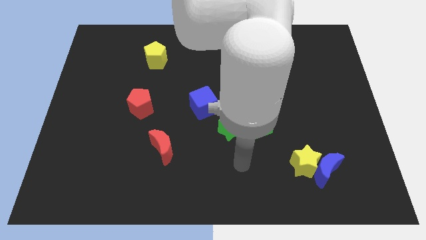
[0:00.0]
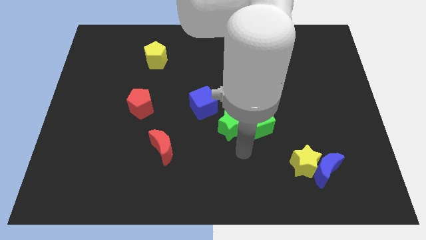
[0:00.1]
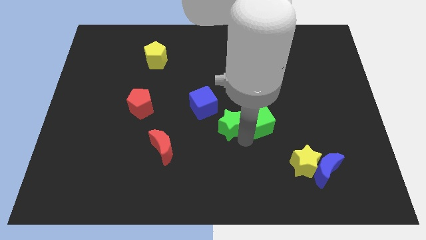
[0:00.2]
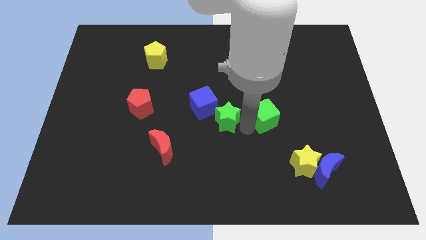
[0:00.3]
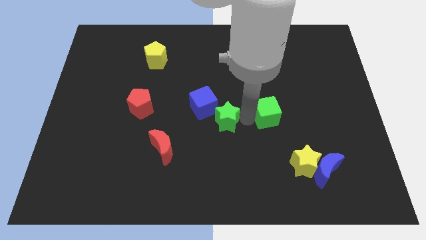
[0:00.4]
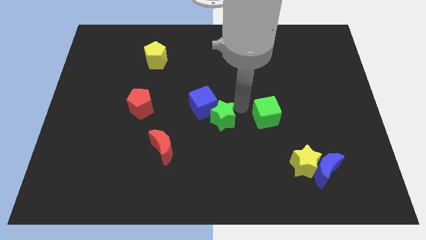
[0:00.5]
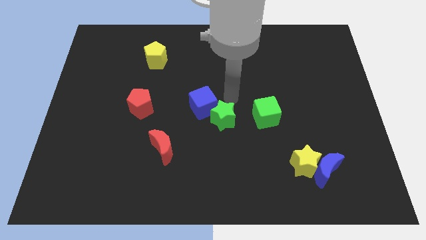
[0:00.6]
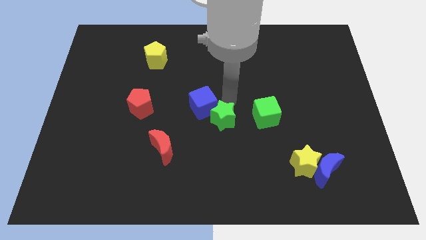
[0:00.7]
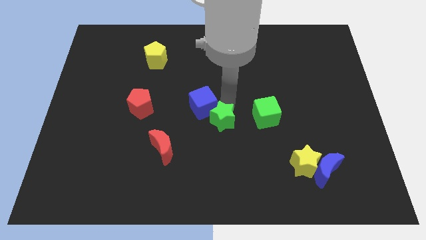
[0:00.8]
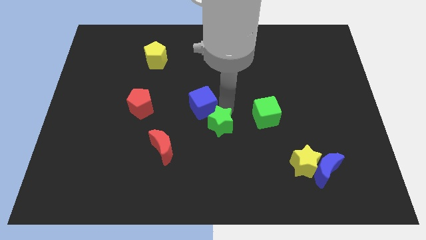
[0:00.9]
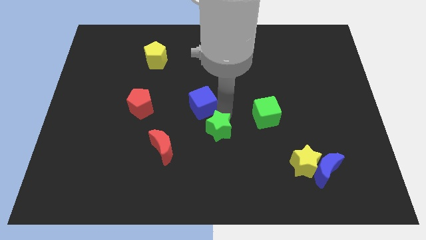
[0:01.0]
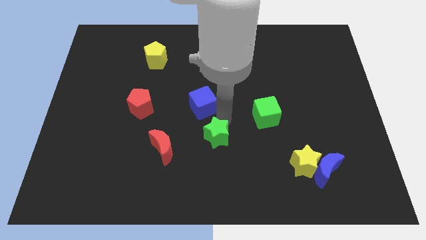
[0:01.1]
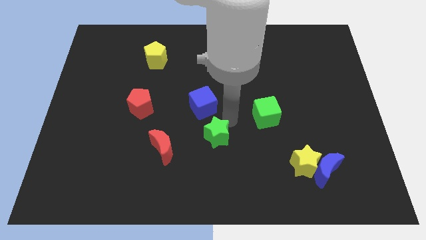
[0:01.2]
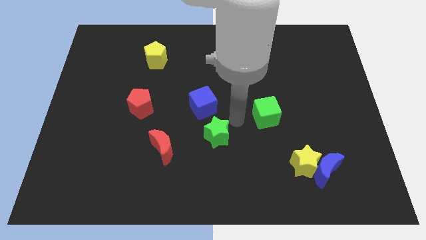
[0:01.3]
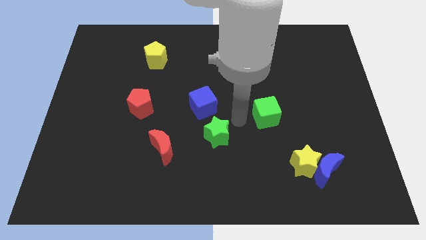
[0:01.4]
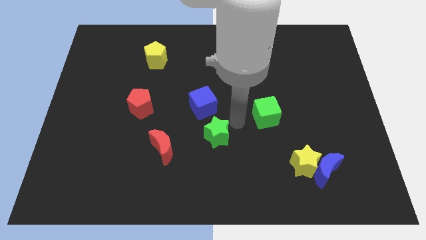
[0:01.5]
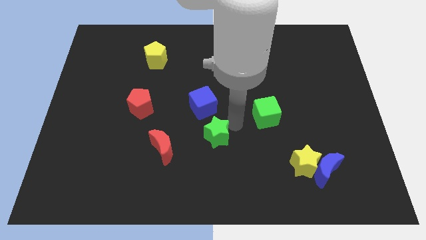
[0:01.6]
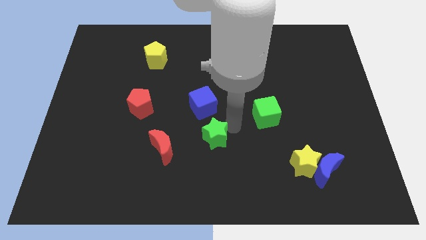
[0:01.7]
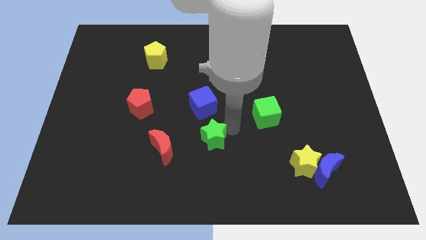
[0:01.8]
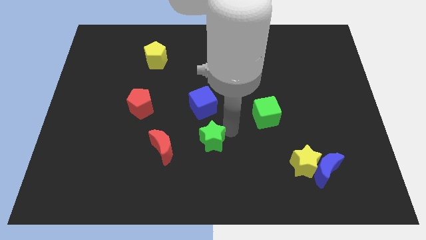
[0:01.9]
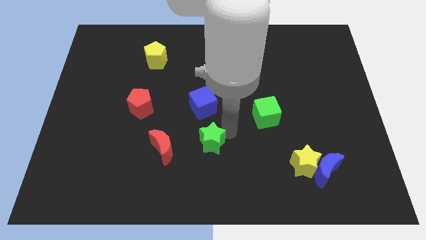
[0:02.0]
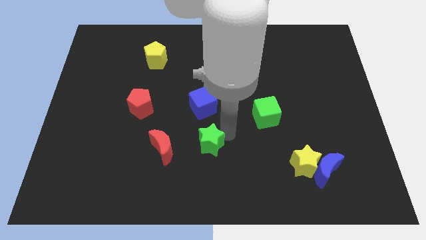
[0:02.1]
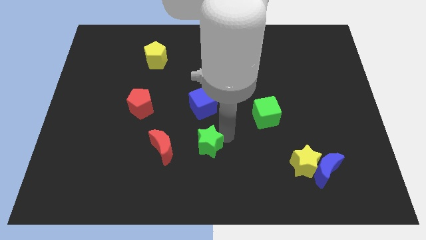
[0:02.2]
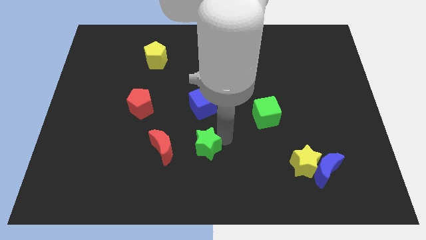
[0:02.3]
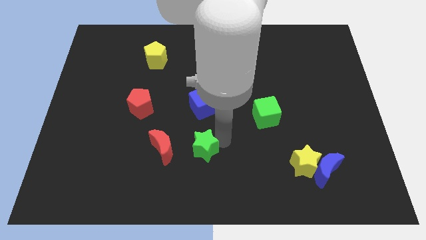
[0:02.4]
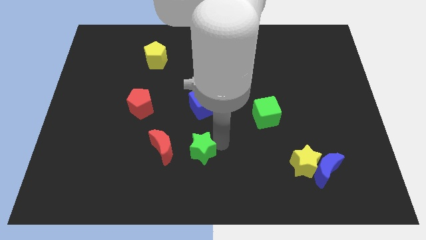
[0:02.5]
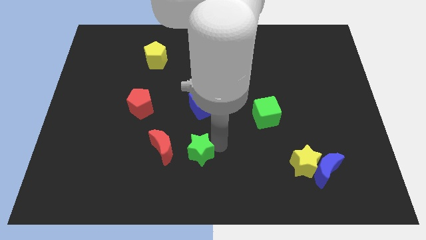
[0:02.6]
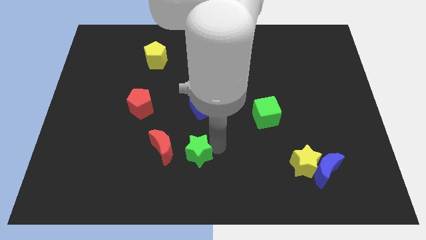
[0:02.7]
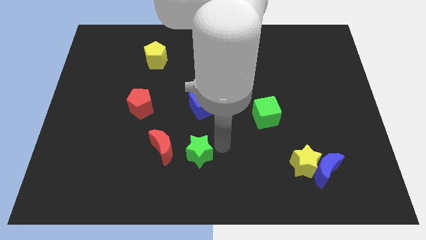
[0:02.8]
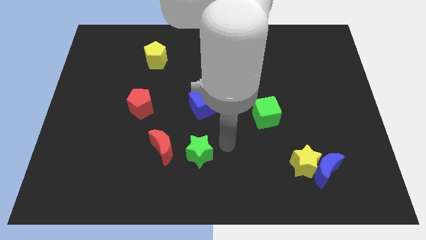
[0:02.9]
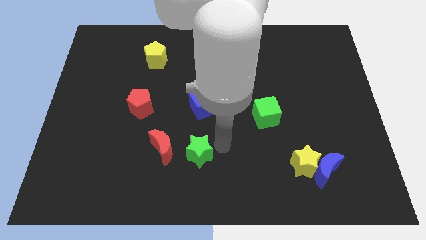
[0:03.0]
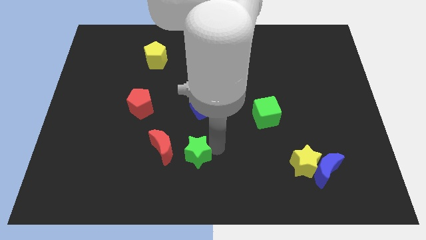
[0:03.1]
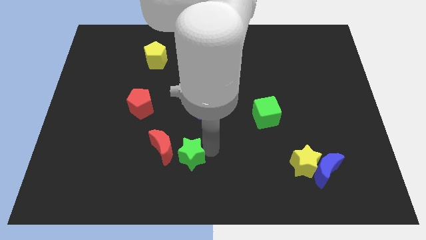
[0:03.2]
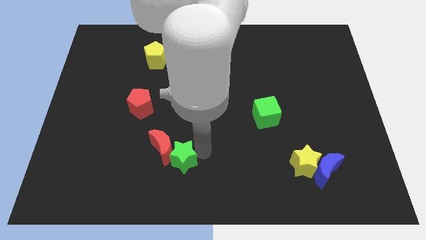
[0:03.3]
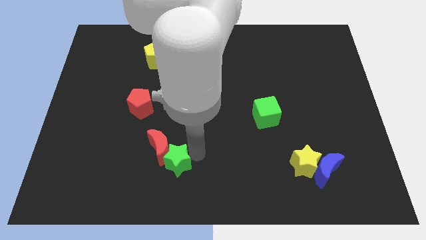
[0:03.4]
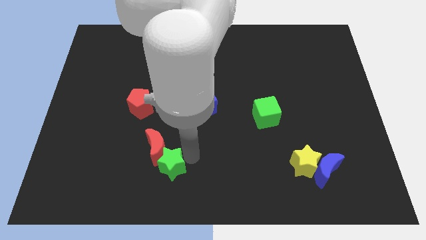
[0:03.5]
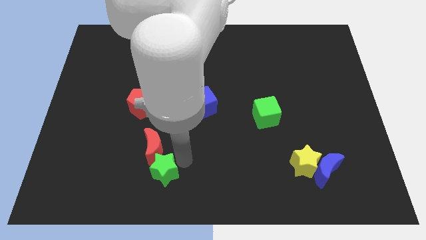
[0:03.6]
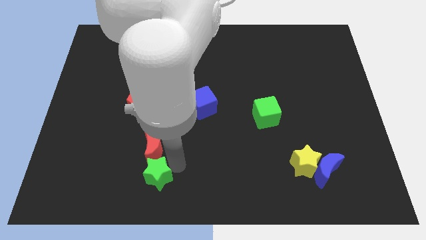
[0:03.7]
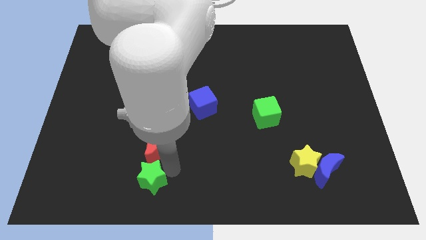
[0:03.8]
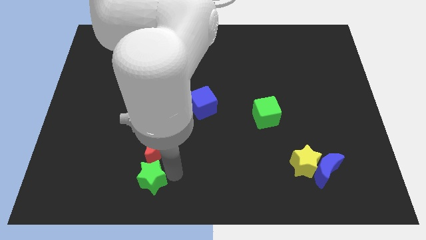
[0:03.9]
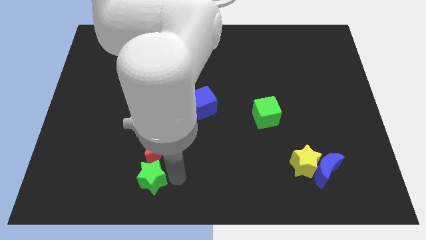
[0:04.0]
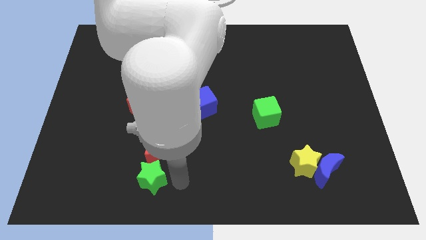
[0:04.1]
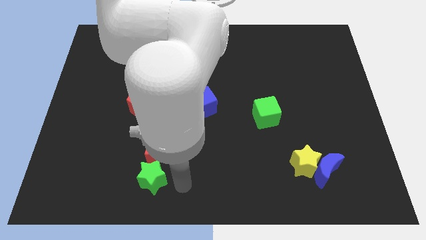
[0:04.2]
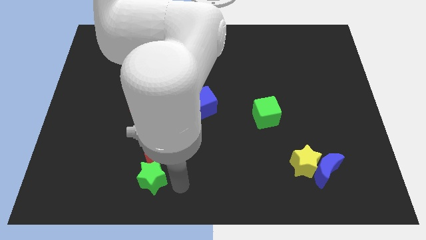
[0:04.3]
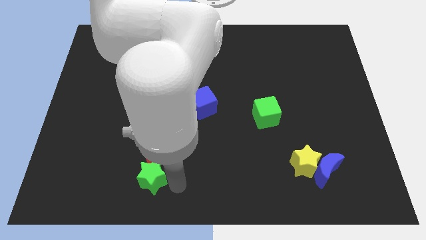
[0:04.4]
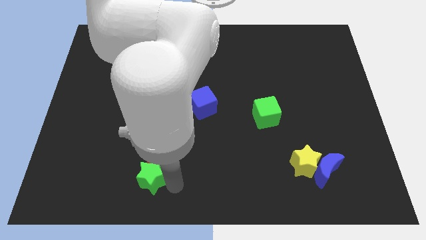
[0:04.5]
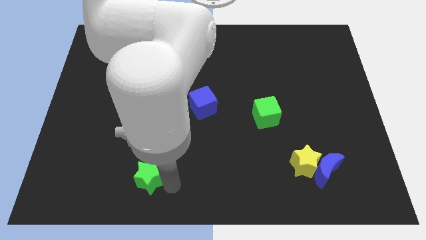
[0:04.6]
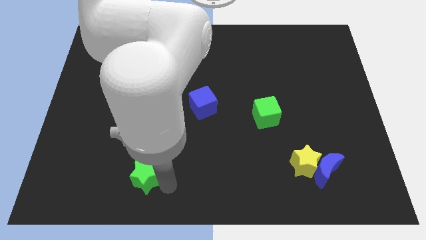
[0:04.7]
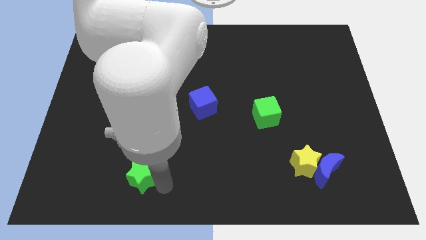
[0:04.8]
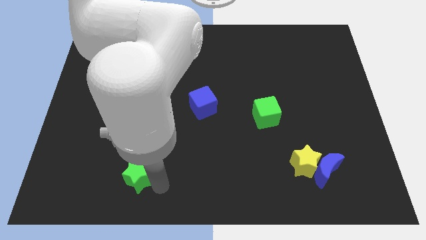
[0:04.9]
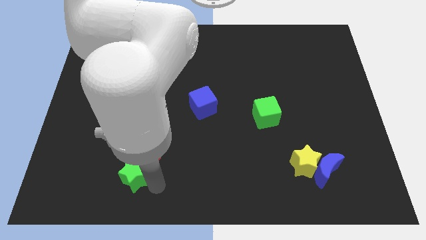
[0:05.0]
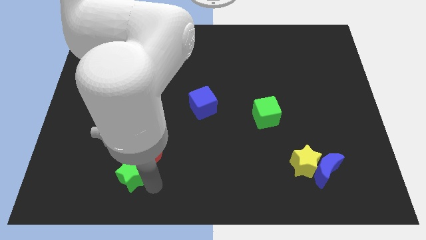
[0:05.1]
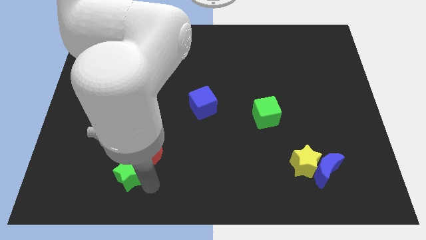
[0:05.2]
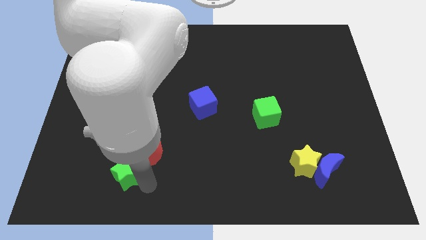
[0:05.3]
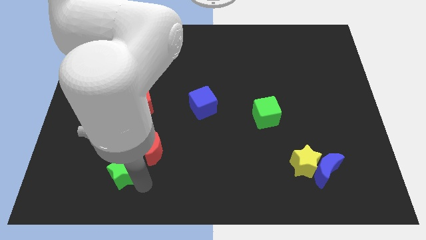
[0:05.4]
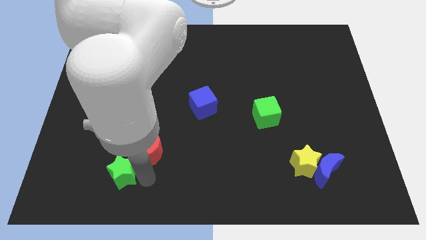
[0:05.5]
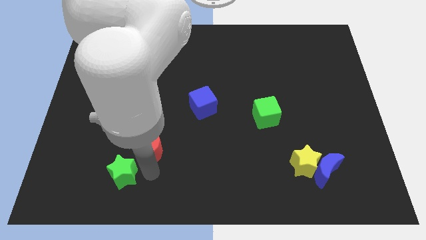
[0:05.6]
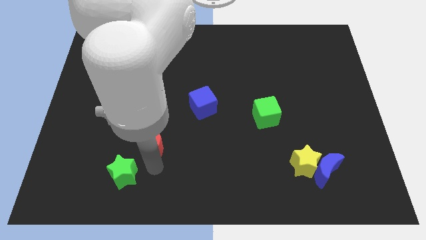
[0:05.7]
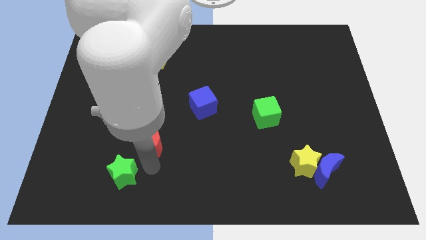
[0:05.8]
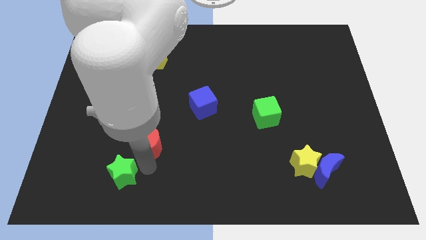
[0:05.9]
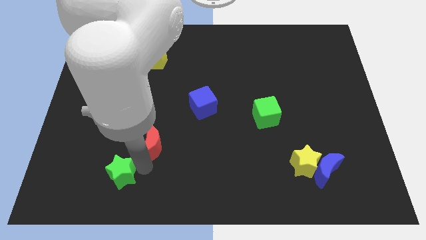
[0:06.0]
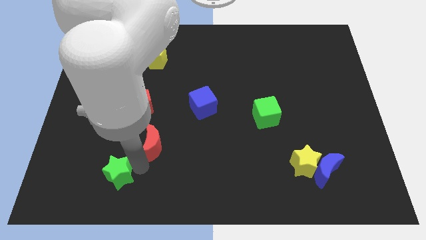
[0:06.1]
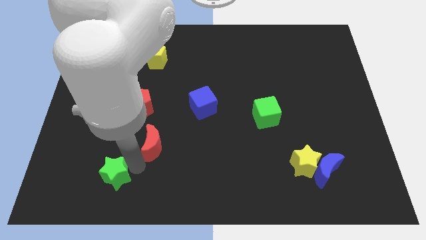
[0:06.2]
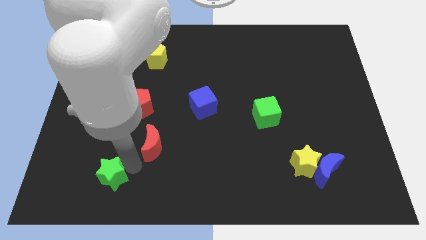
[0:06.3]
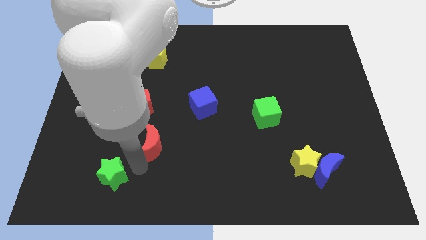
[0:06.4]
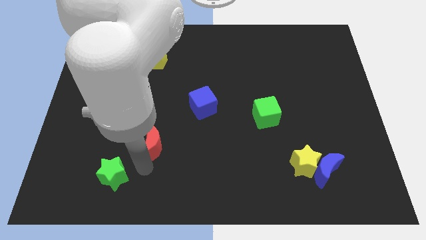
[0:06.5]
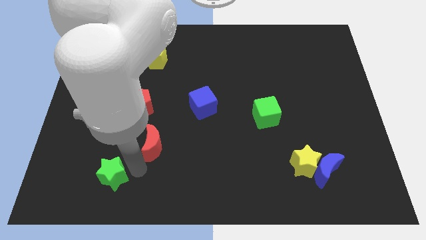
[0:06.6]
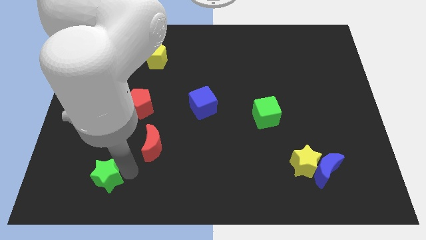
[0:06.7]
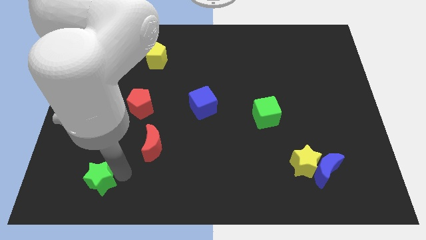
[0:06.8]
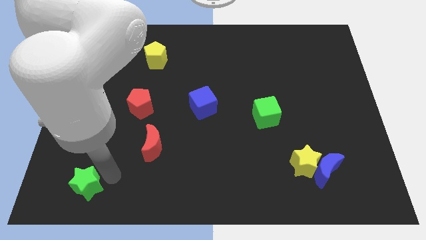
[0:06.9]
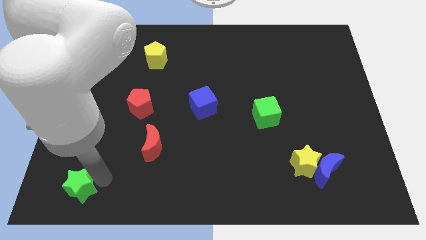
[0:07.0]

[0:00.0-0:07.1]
put the green star to the bottom left of the board
